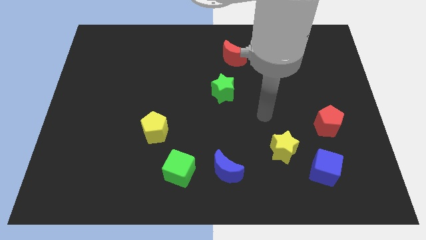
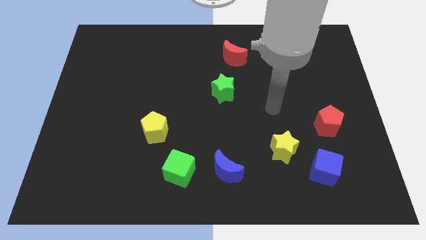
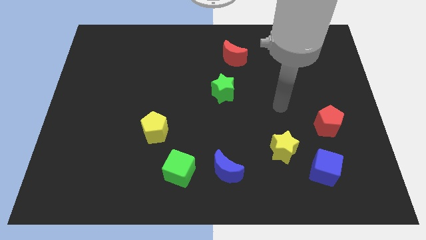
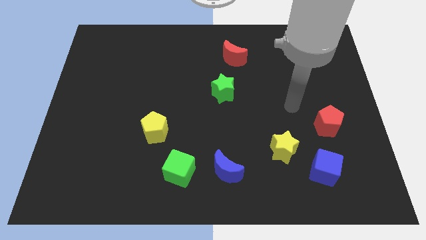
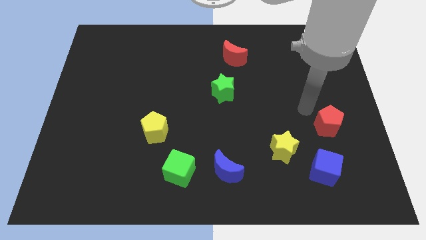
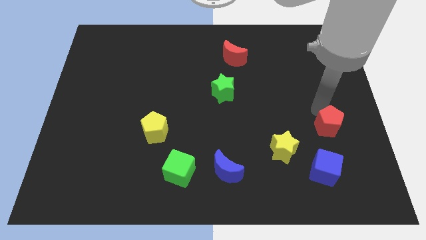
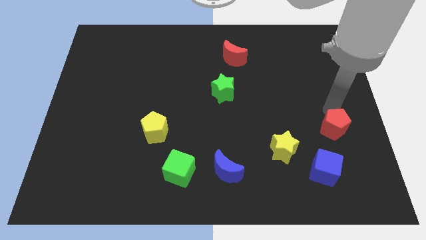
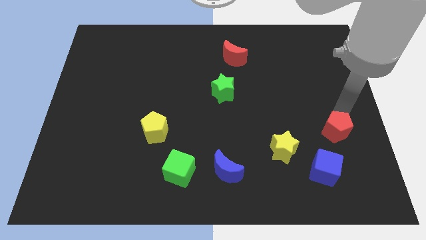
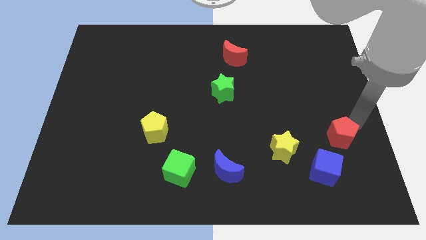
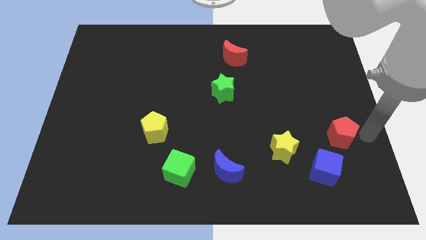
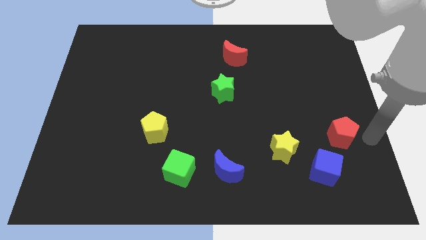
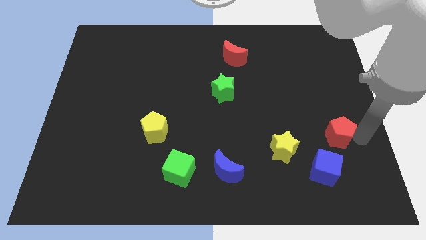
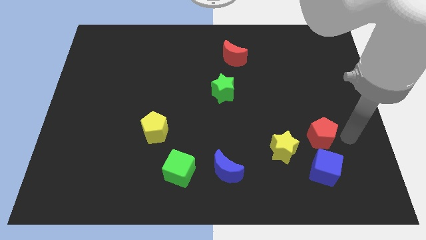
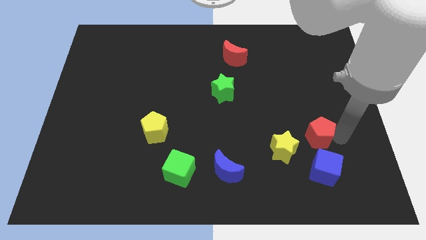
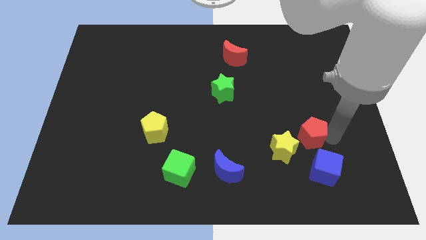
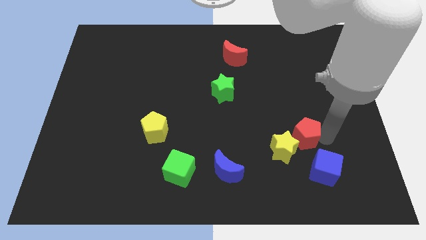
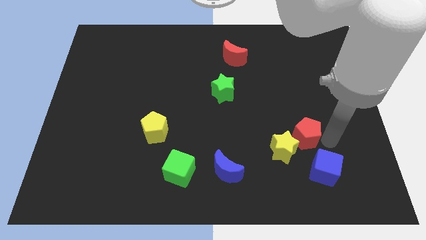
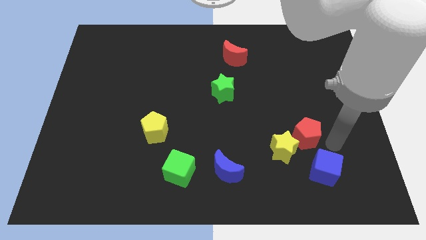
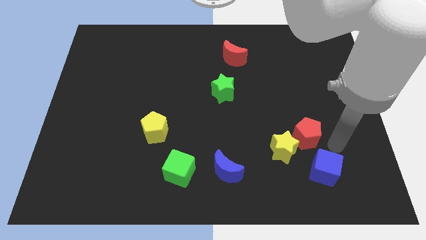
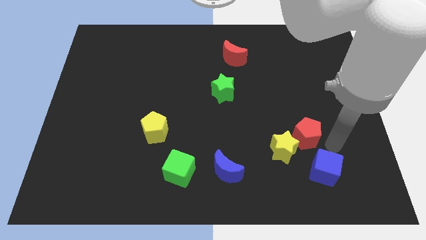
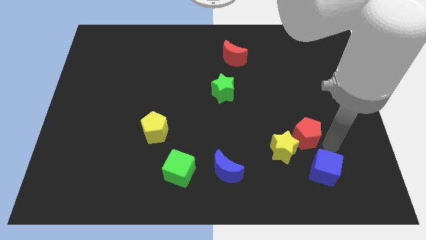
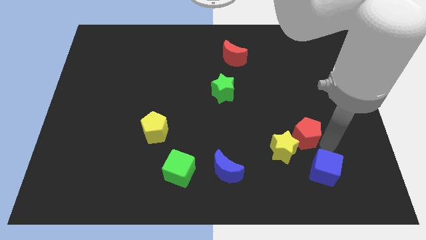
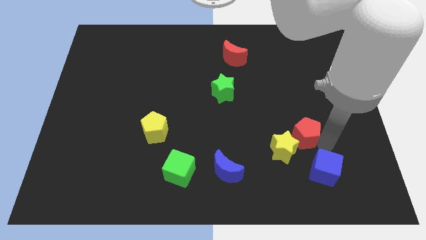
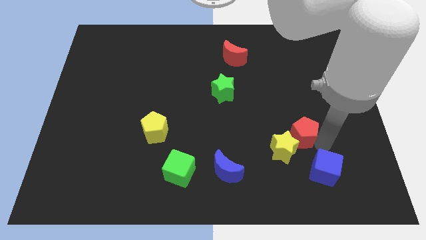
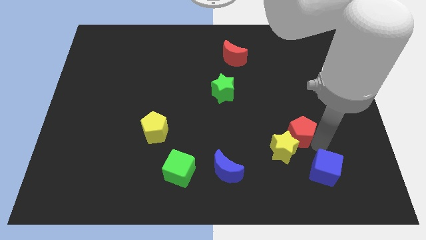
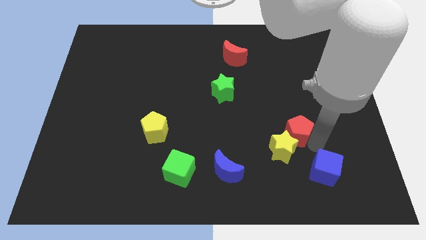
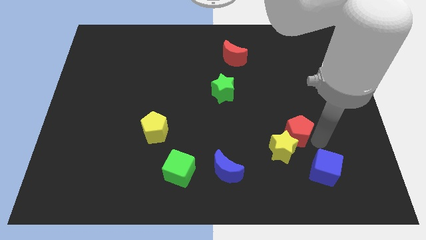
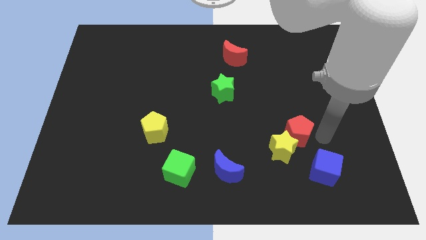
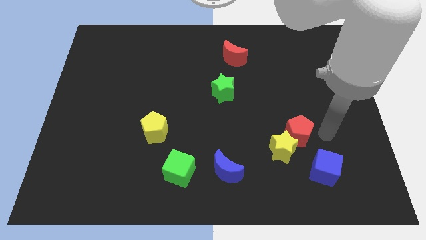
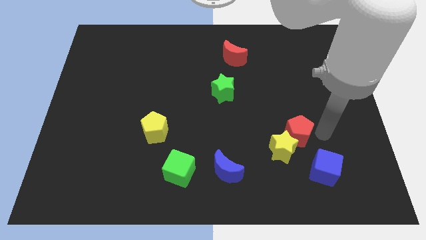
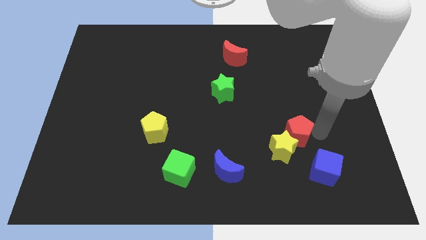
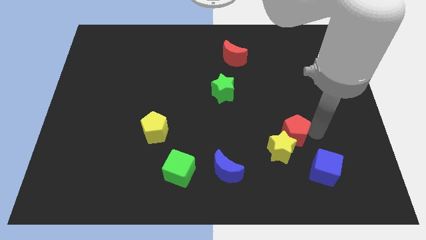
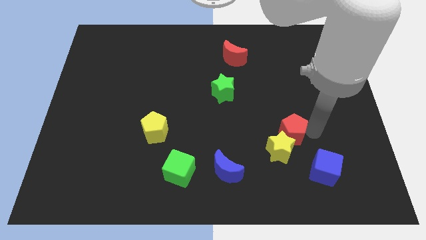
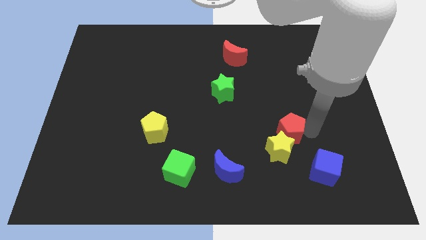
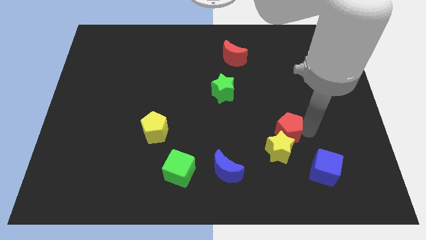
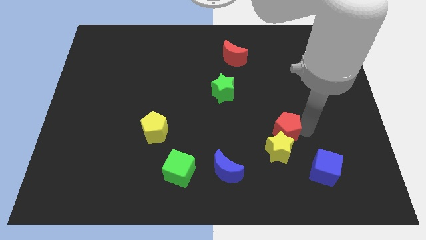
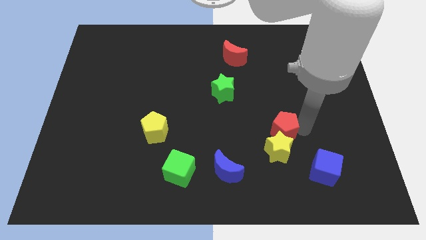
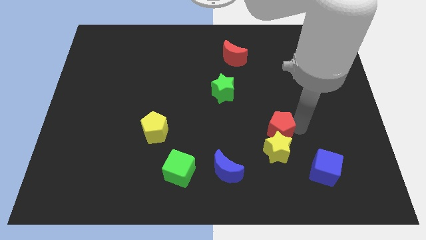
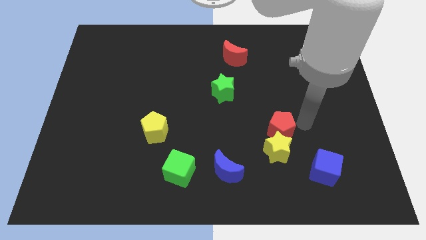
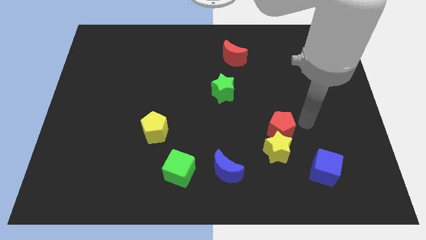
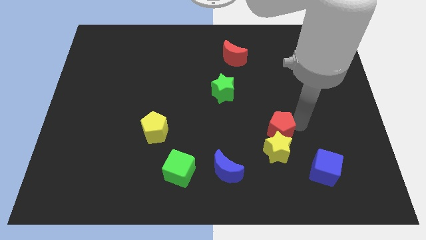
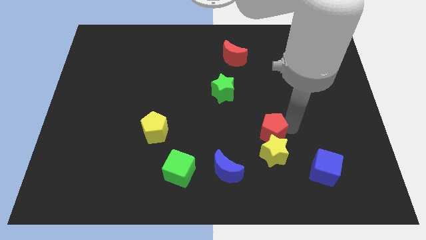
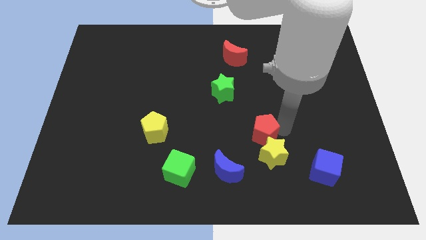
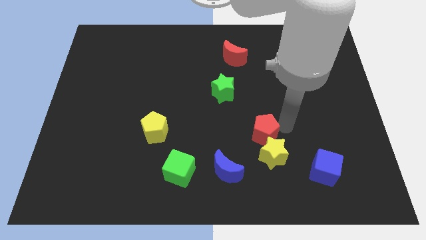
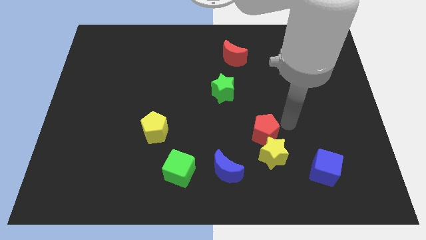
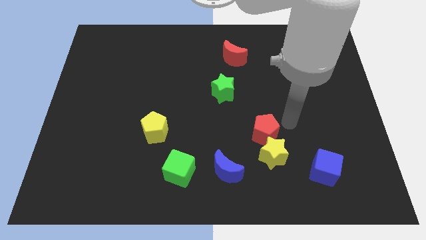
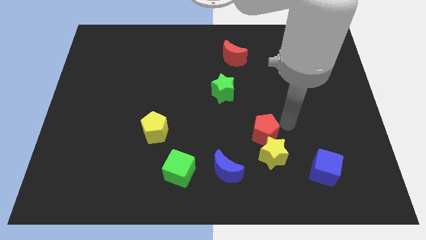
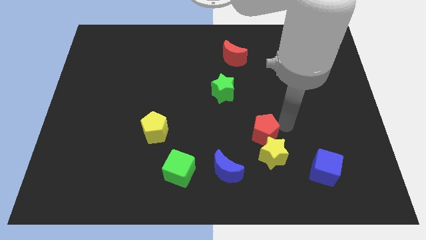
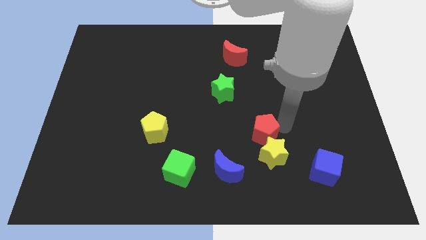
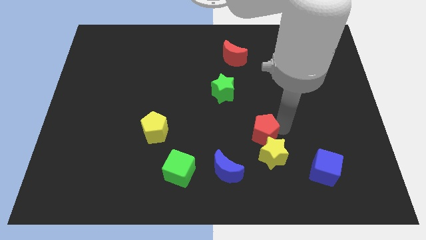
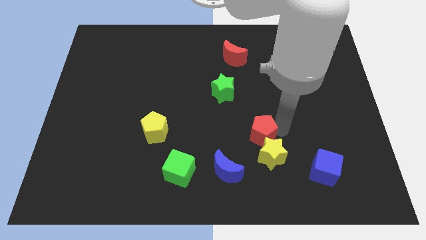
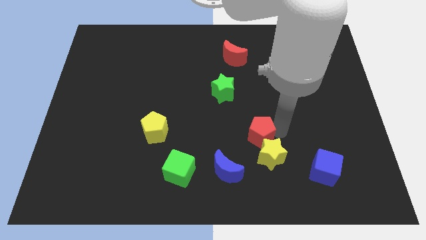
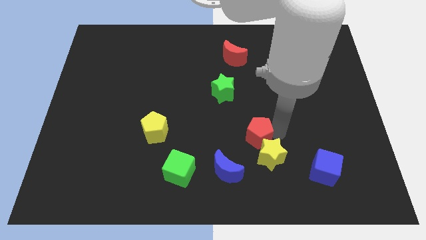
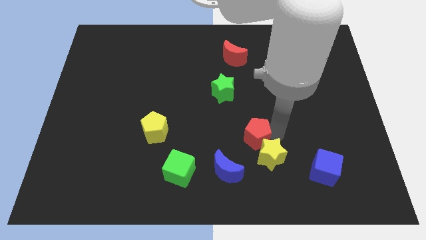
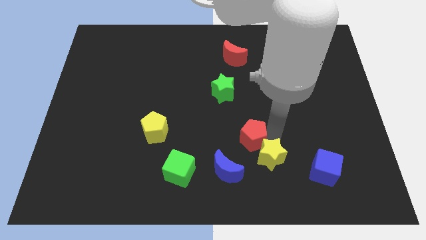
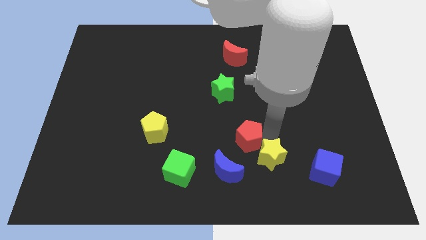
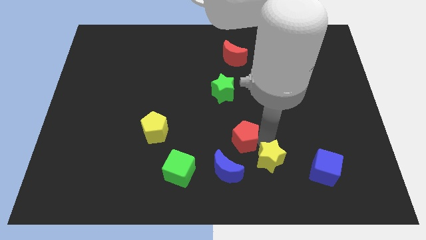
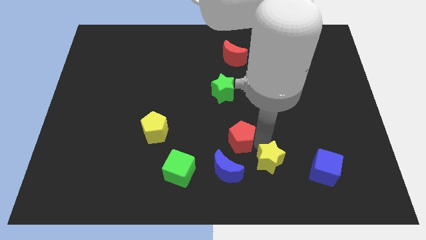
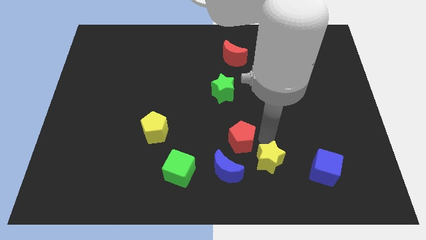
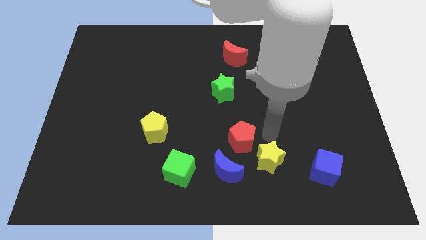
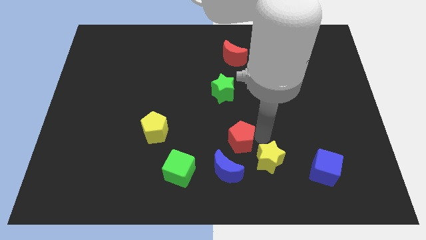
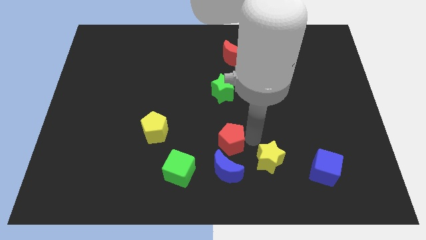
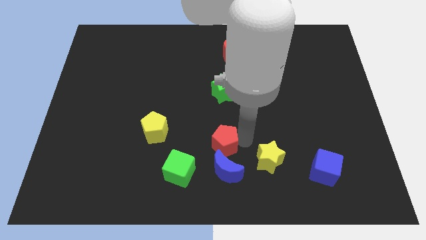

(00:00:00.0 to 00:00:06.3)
put the red pentagon to the top right of the green cube

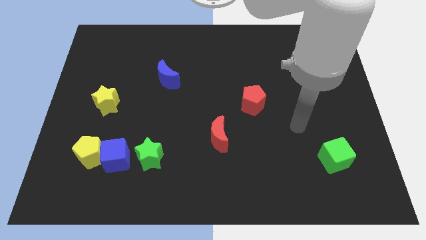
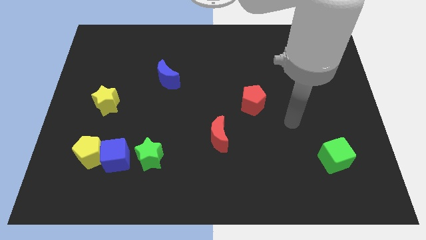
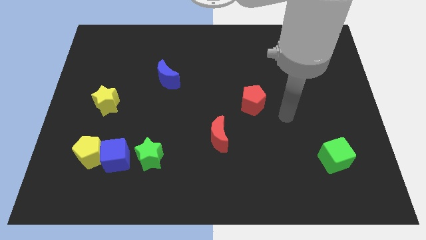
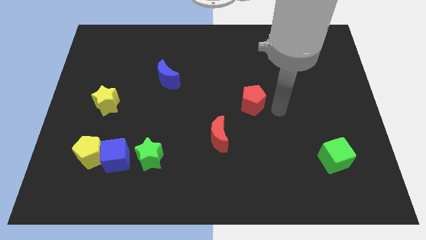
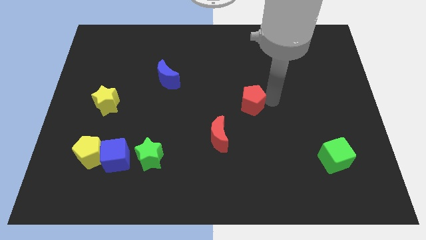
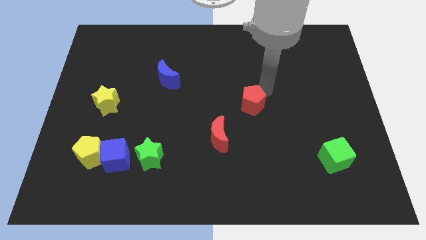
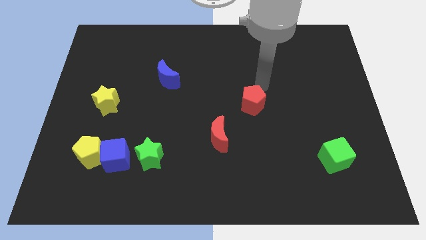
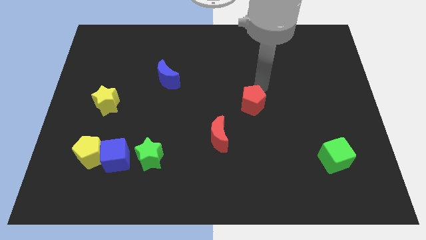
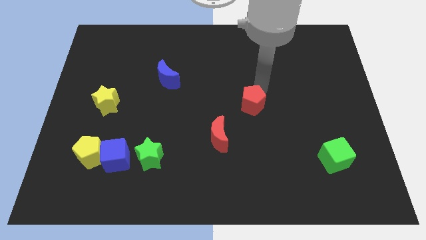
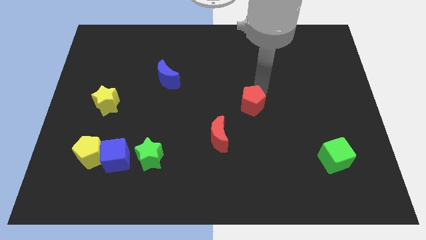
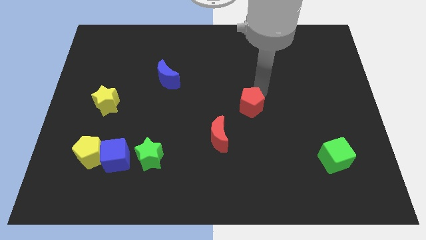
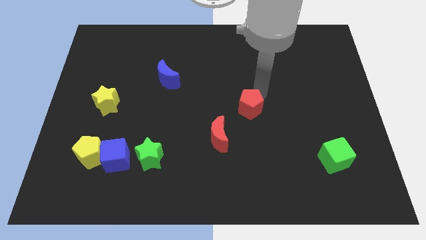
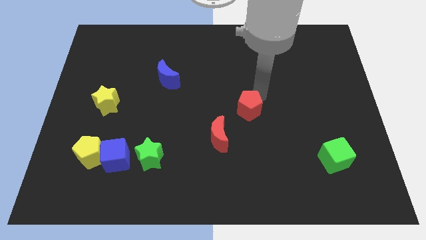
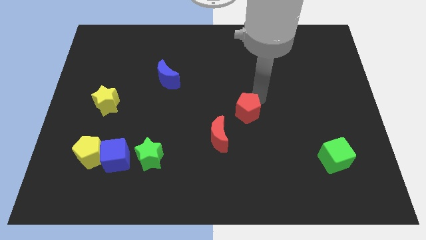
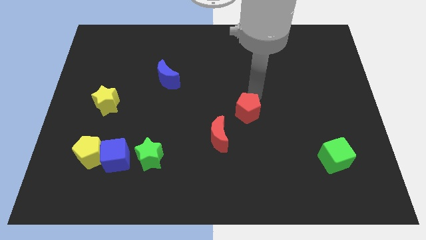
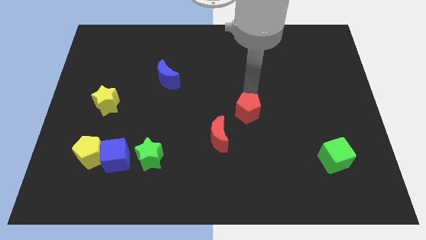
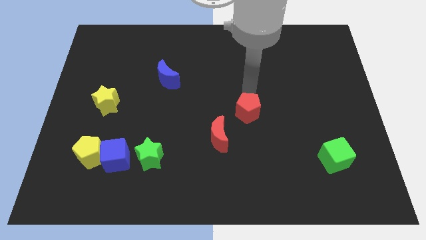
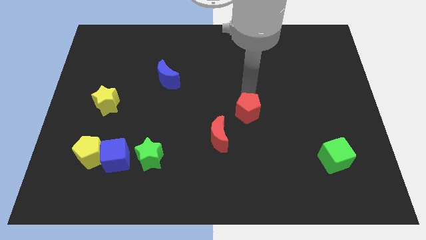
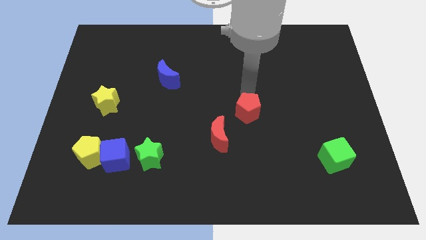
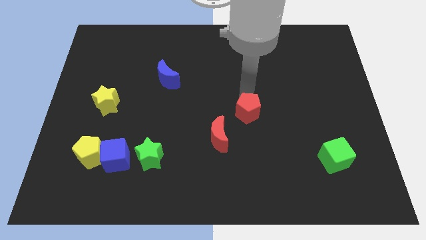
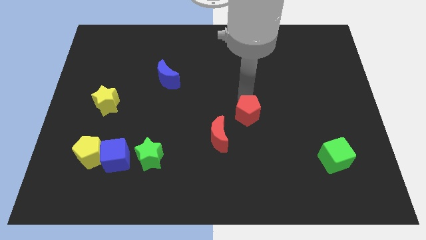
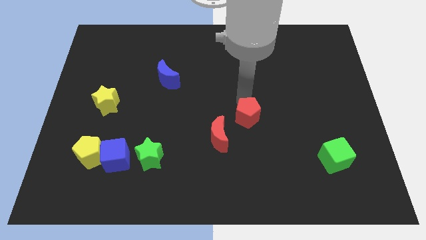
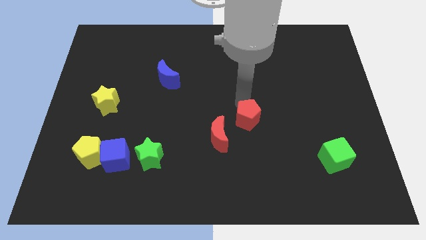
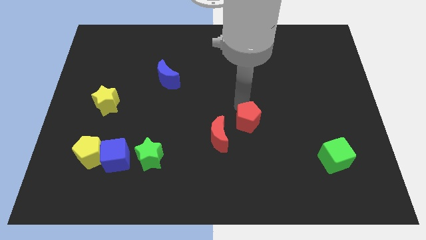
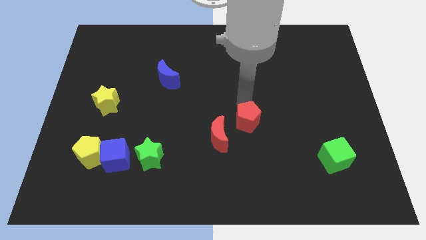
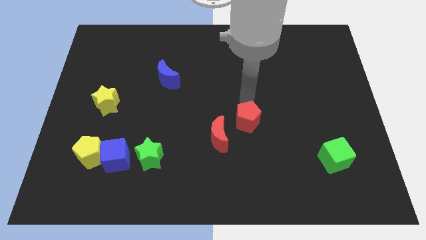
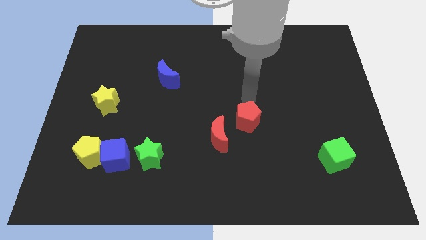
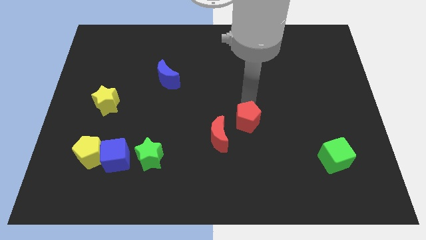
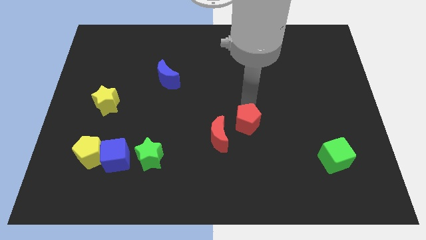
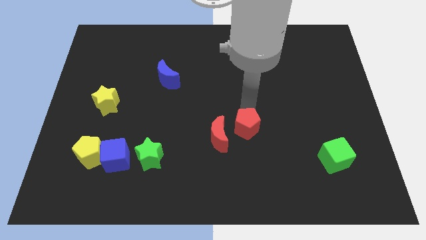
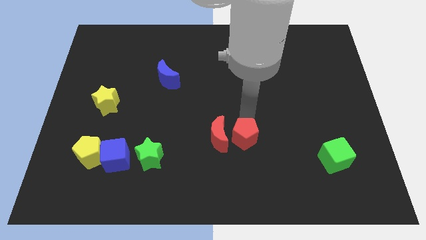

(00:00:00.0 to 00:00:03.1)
put the red pentagon diagonally down and to the right of the red moon
